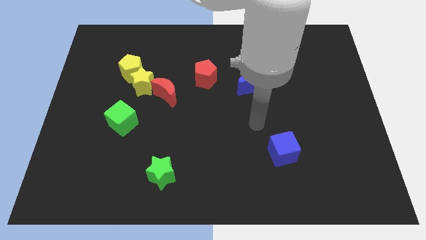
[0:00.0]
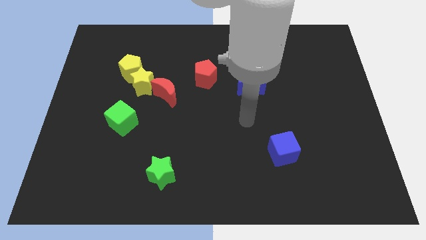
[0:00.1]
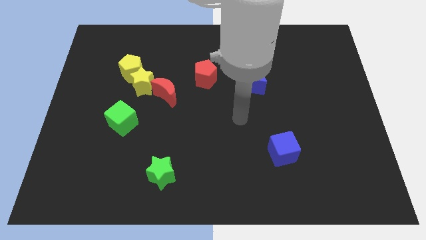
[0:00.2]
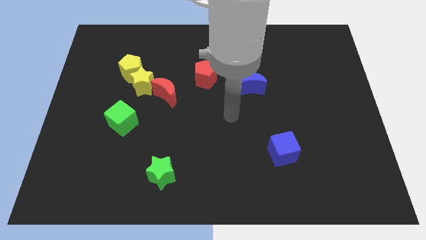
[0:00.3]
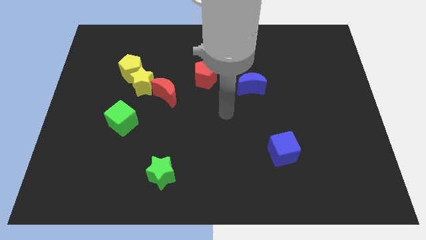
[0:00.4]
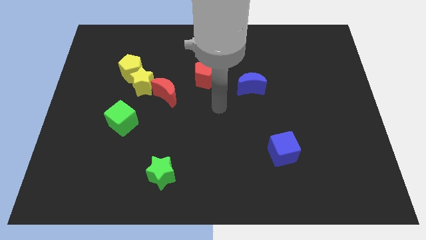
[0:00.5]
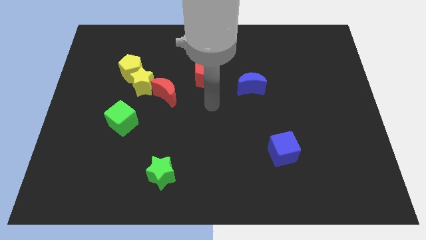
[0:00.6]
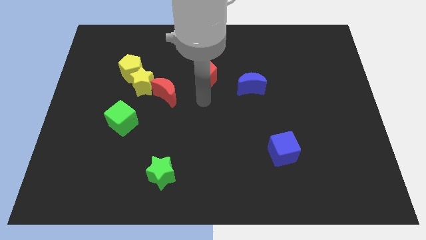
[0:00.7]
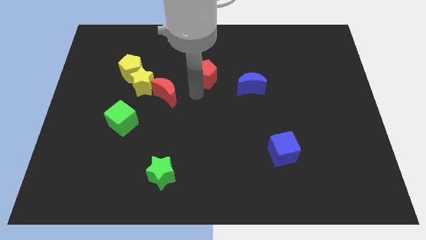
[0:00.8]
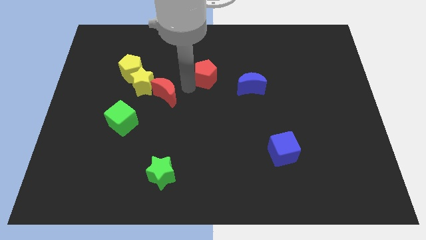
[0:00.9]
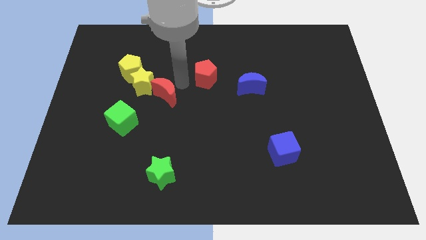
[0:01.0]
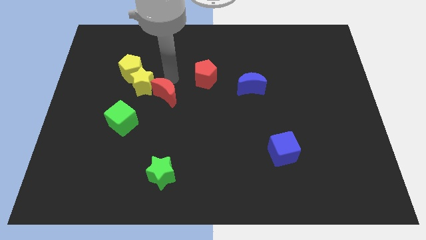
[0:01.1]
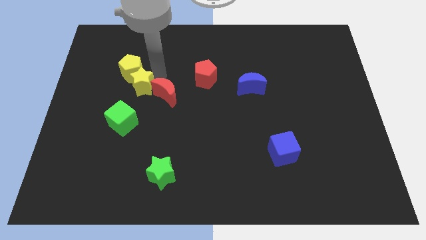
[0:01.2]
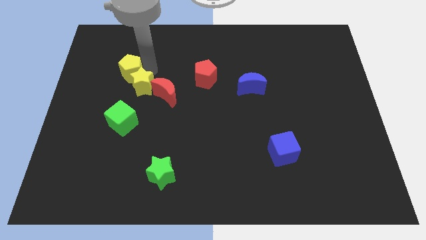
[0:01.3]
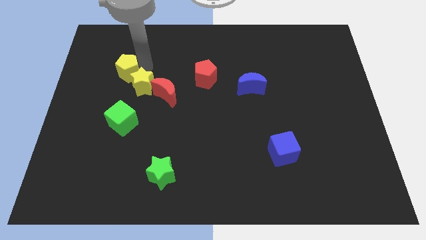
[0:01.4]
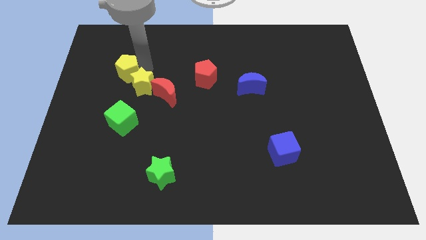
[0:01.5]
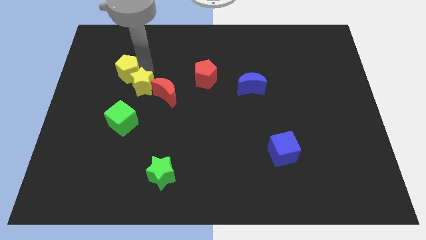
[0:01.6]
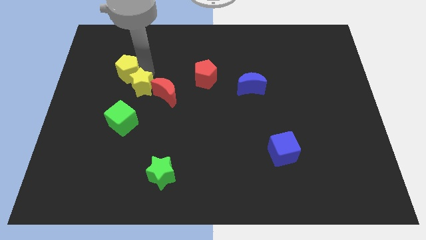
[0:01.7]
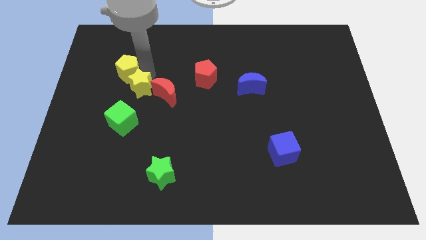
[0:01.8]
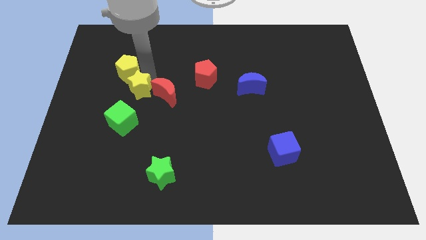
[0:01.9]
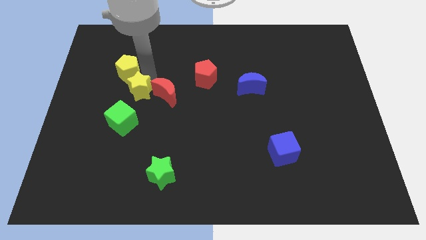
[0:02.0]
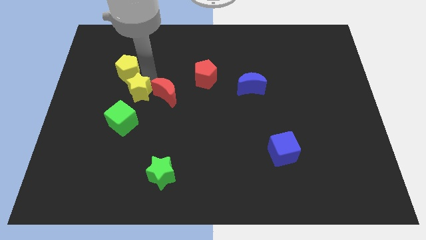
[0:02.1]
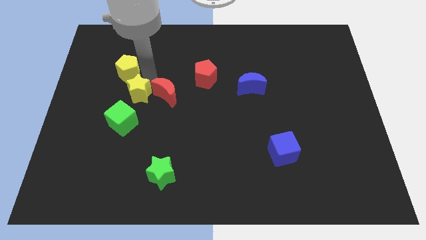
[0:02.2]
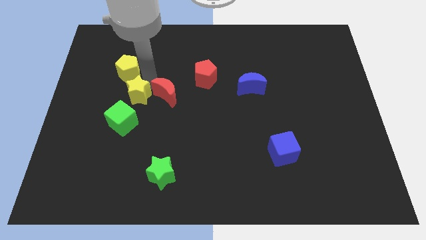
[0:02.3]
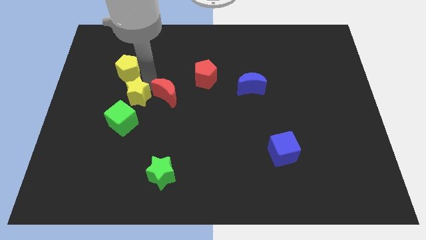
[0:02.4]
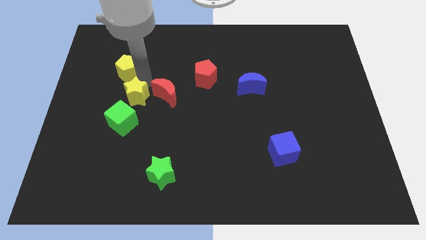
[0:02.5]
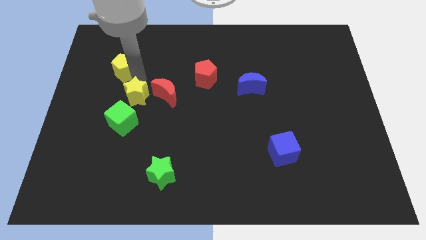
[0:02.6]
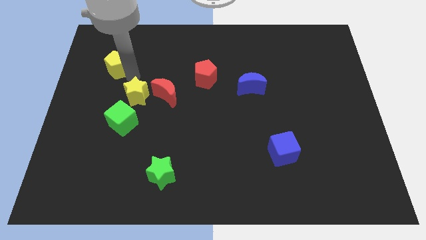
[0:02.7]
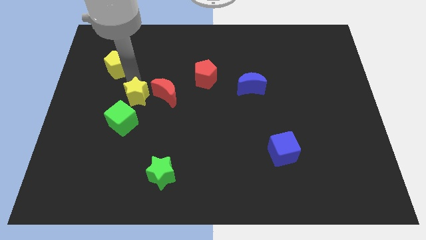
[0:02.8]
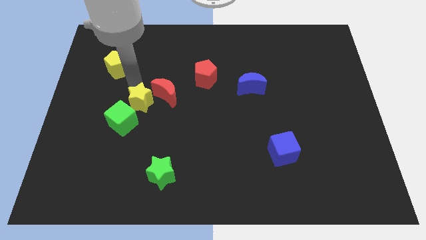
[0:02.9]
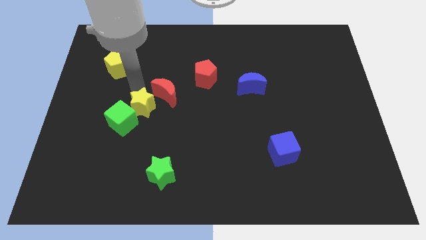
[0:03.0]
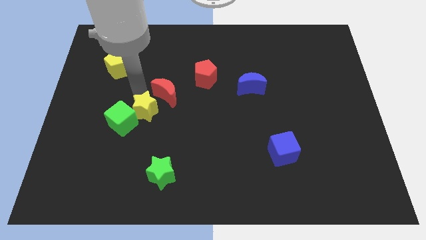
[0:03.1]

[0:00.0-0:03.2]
slide the yellow star downwards a bit

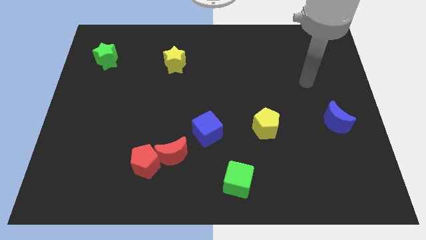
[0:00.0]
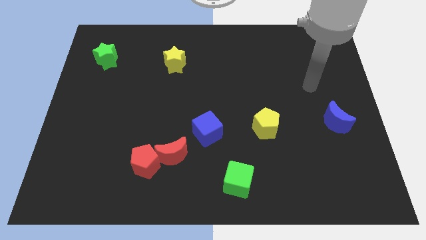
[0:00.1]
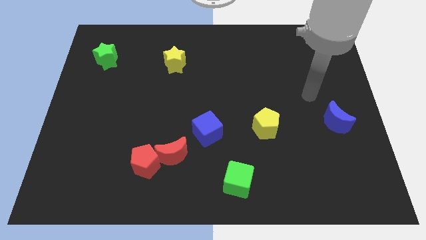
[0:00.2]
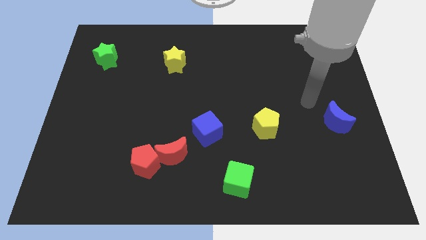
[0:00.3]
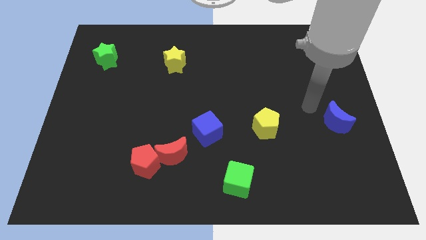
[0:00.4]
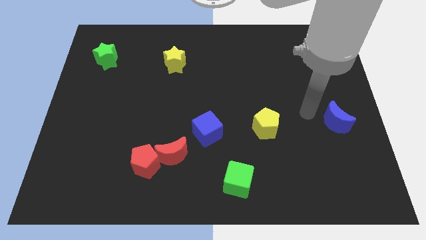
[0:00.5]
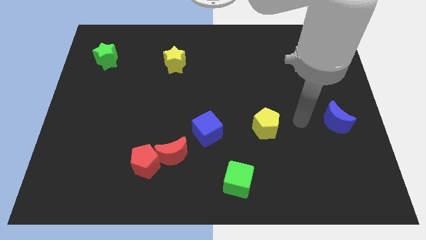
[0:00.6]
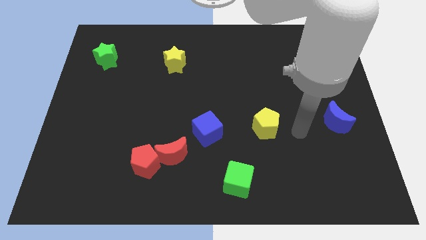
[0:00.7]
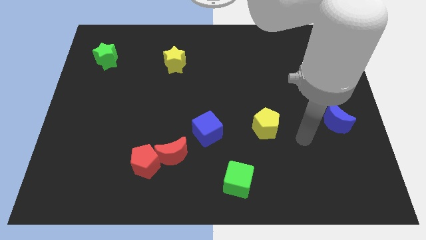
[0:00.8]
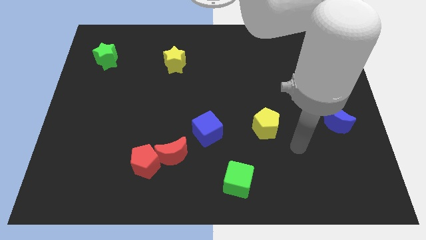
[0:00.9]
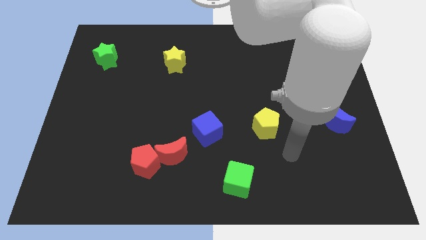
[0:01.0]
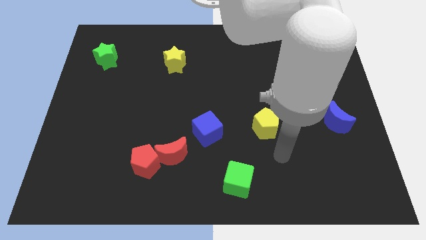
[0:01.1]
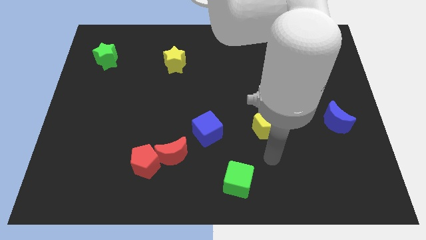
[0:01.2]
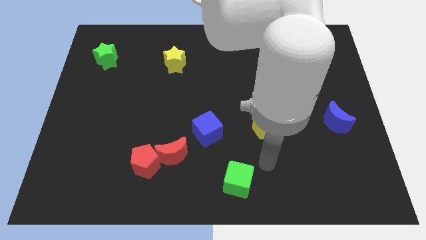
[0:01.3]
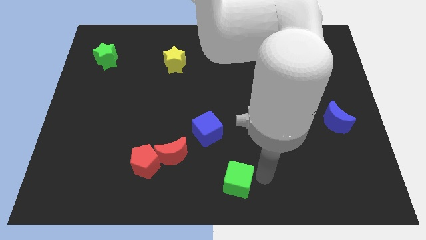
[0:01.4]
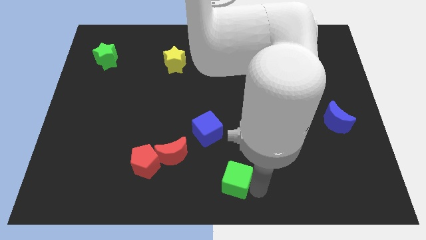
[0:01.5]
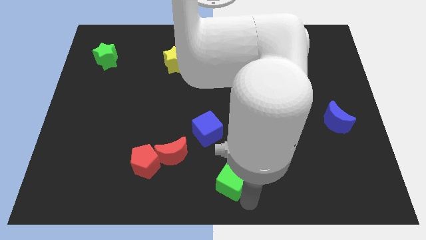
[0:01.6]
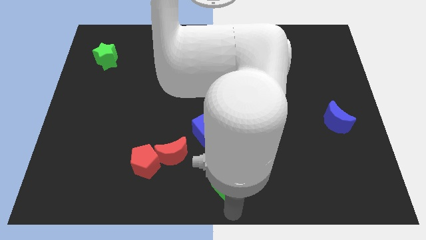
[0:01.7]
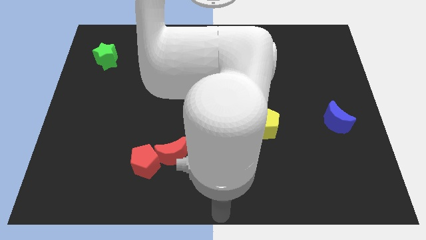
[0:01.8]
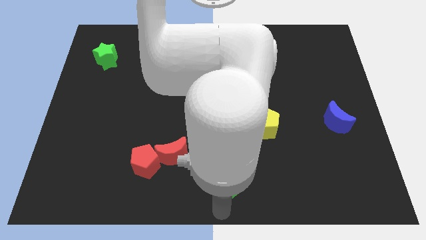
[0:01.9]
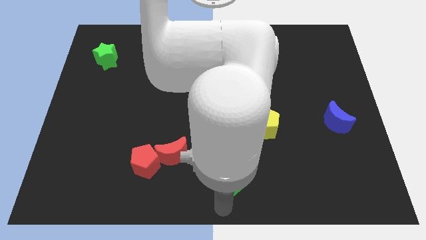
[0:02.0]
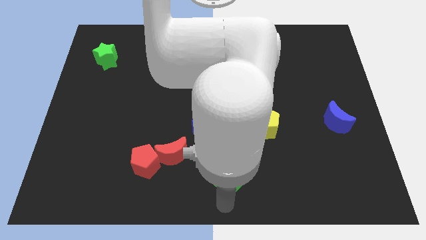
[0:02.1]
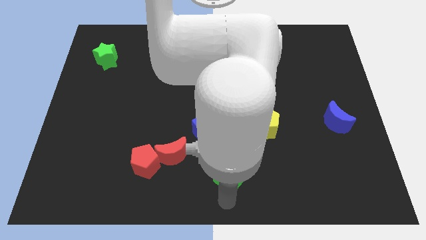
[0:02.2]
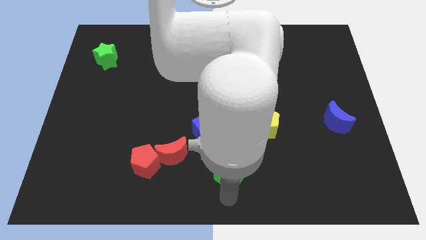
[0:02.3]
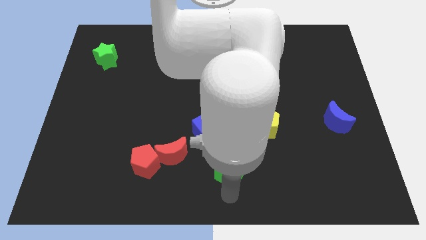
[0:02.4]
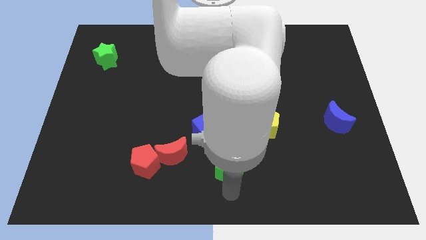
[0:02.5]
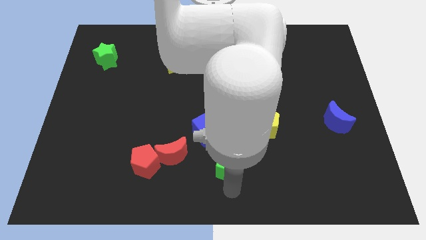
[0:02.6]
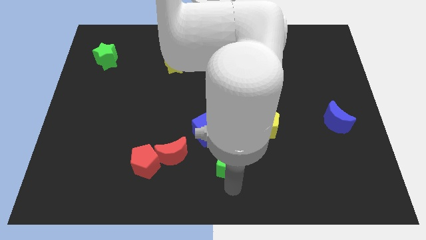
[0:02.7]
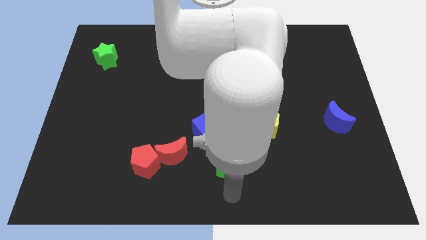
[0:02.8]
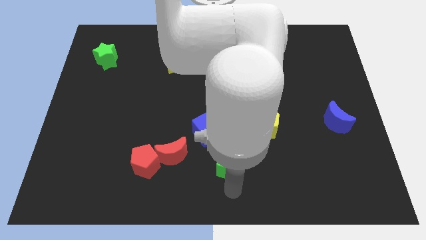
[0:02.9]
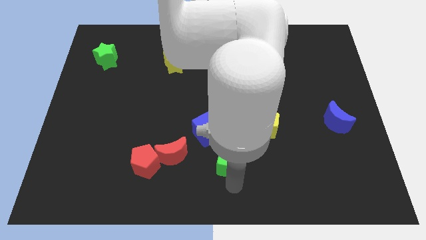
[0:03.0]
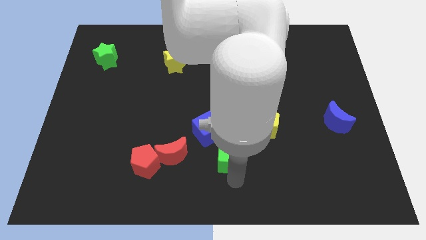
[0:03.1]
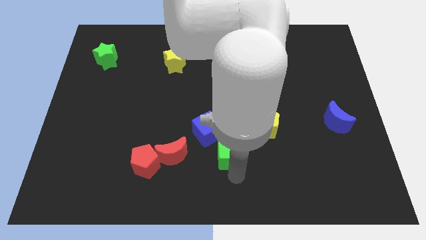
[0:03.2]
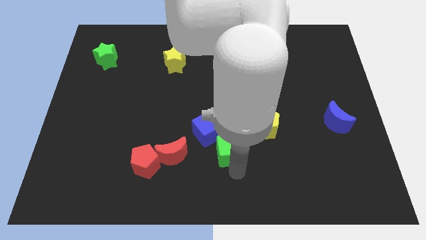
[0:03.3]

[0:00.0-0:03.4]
slightly move the green cube up

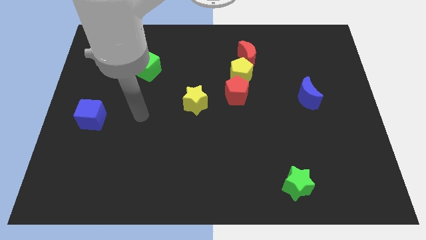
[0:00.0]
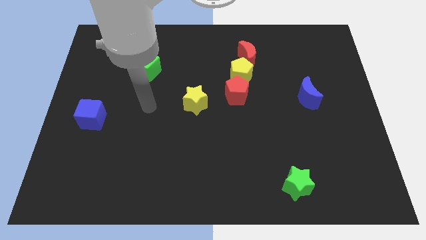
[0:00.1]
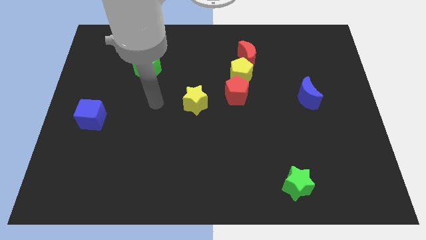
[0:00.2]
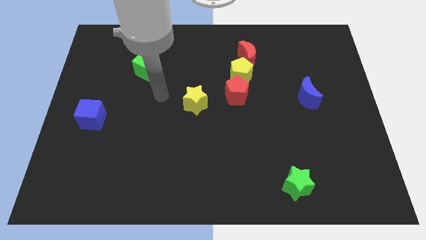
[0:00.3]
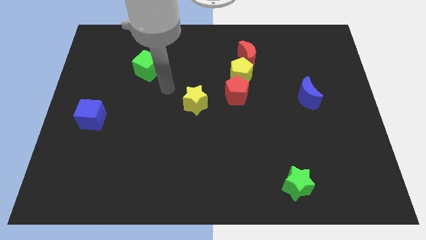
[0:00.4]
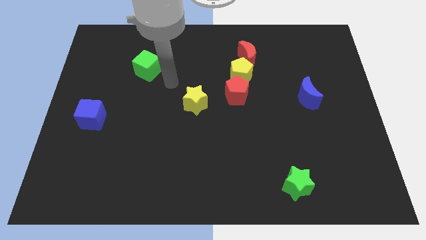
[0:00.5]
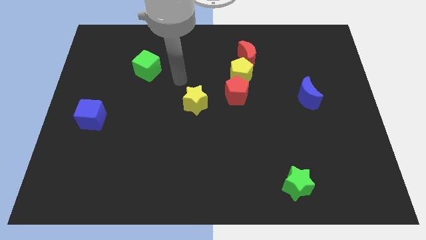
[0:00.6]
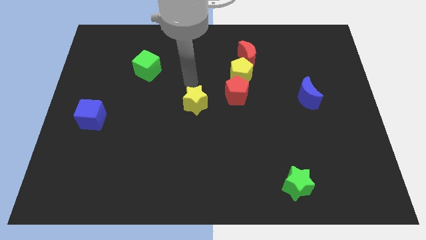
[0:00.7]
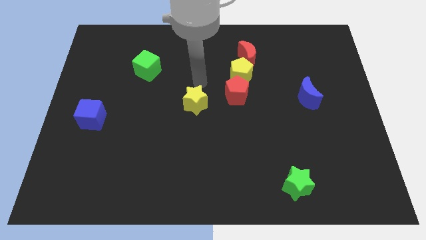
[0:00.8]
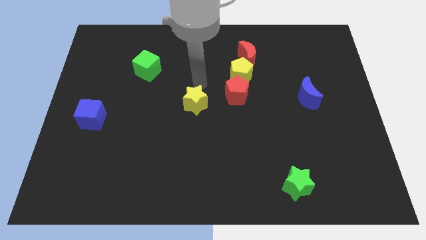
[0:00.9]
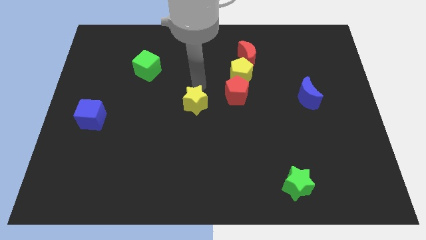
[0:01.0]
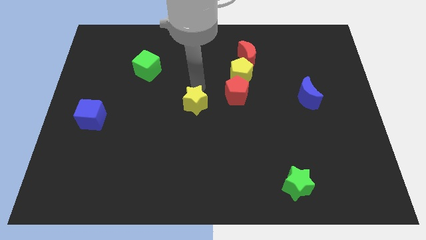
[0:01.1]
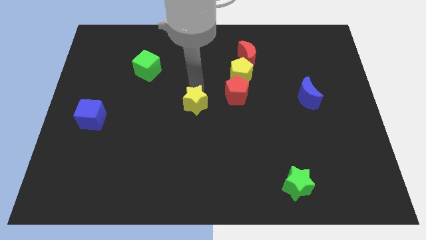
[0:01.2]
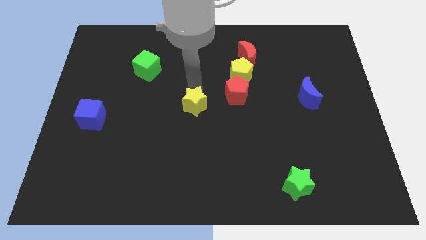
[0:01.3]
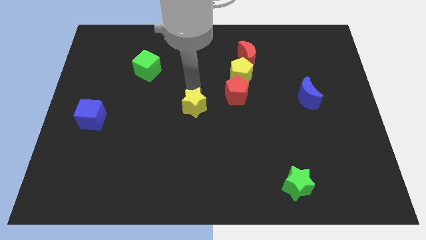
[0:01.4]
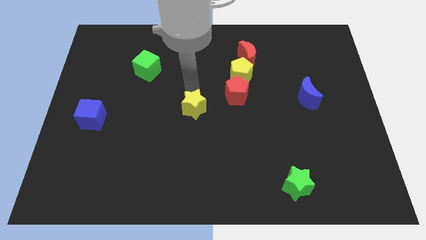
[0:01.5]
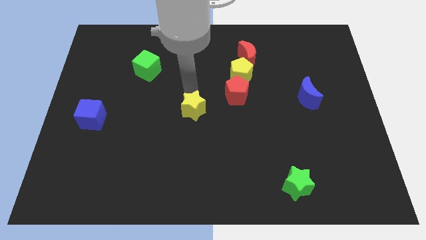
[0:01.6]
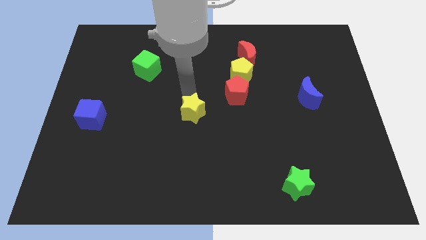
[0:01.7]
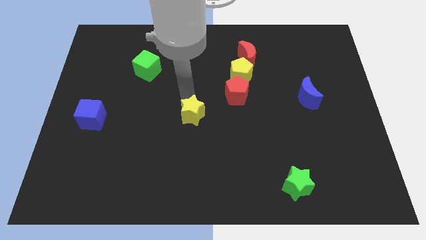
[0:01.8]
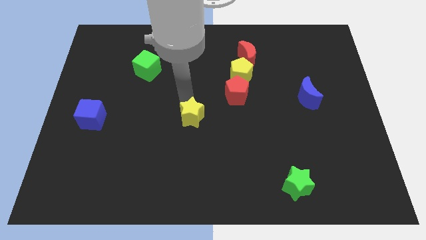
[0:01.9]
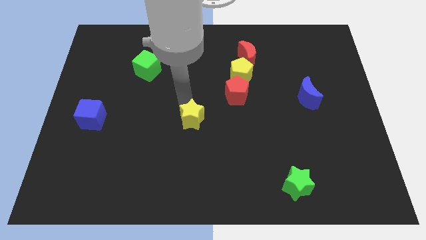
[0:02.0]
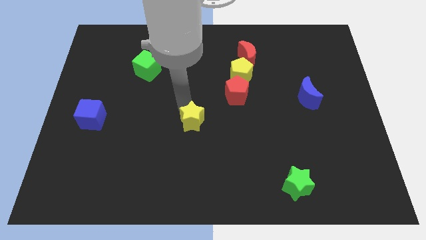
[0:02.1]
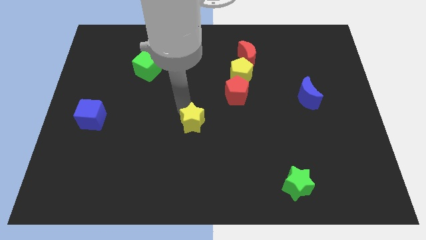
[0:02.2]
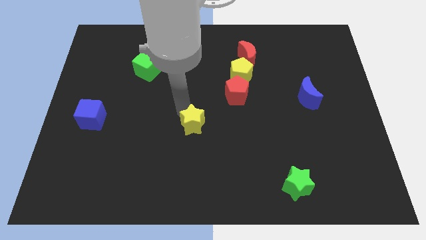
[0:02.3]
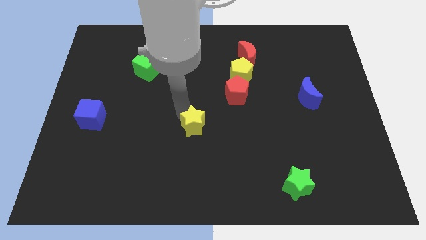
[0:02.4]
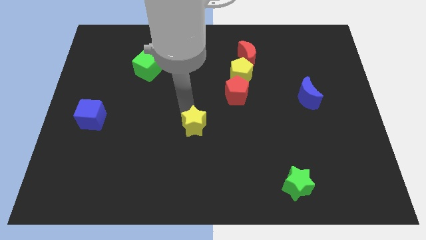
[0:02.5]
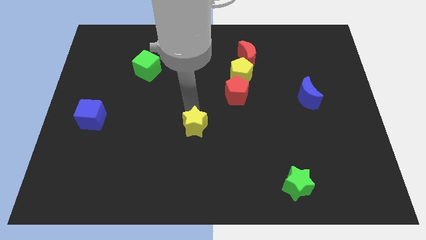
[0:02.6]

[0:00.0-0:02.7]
slightly slide the yellow star down
